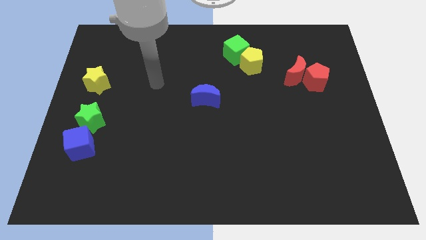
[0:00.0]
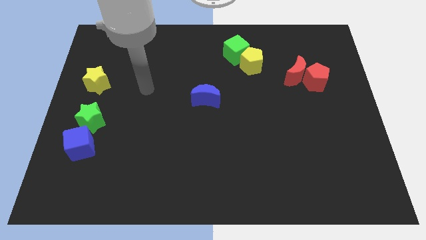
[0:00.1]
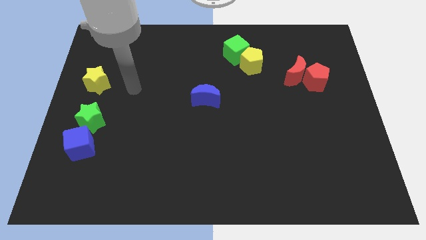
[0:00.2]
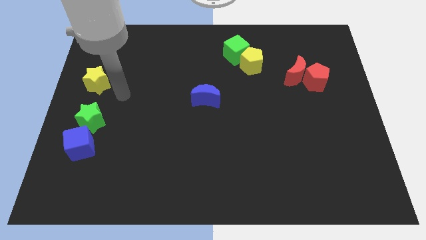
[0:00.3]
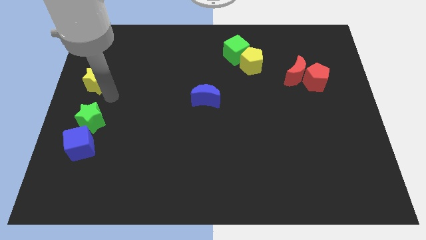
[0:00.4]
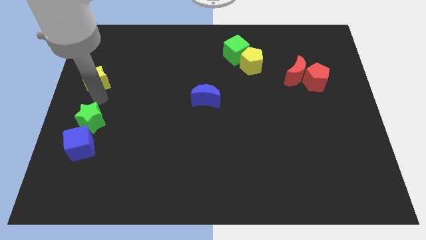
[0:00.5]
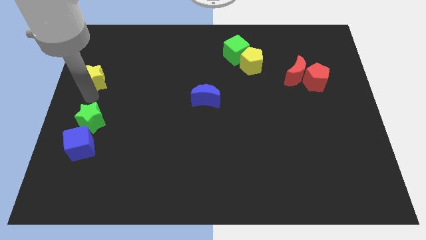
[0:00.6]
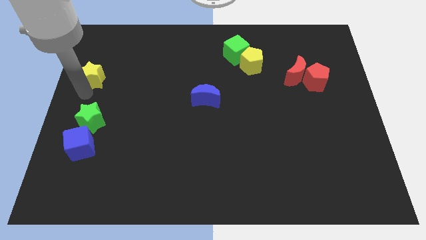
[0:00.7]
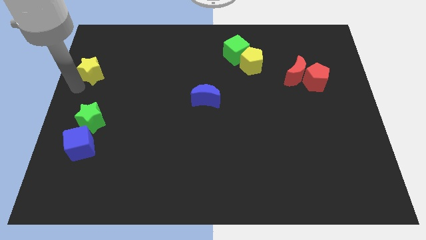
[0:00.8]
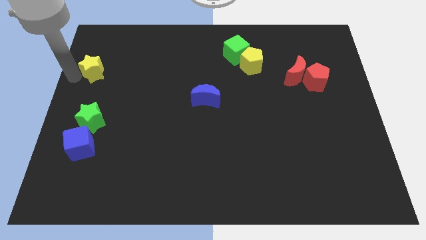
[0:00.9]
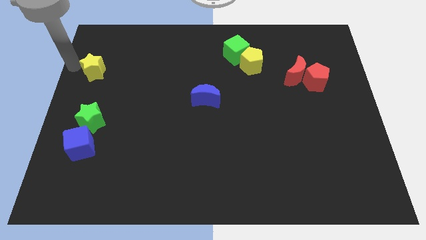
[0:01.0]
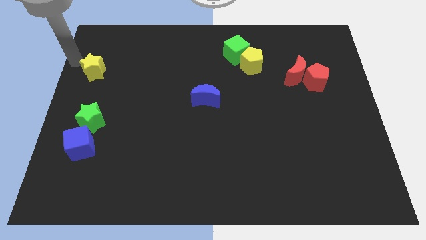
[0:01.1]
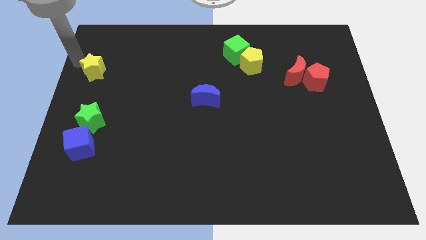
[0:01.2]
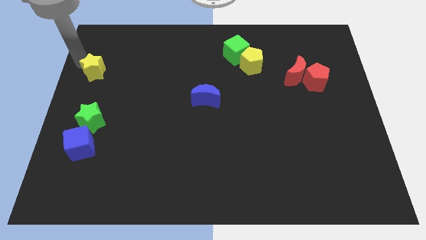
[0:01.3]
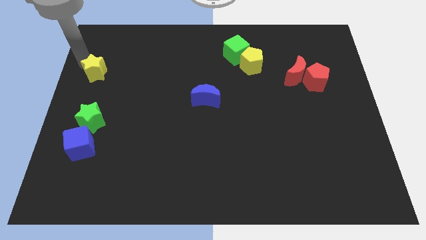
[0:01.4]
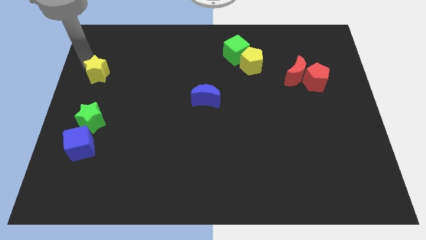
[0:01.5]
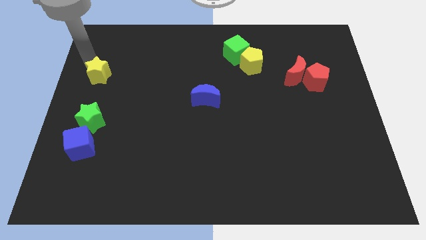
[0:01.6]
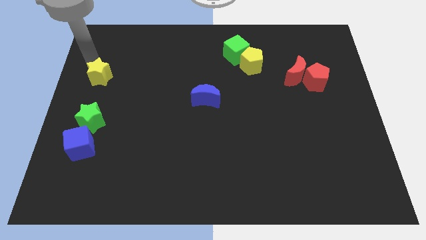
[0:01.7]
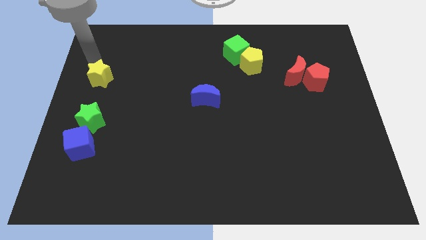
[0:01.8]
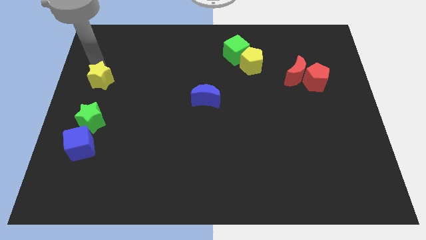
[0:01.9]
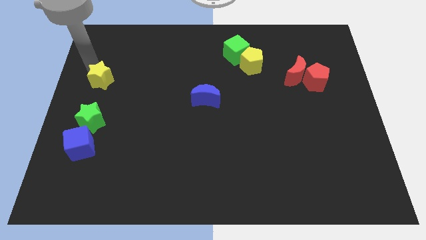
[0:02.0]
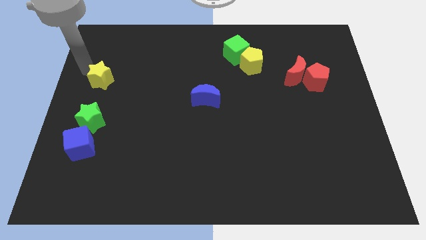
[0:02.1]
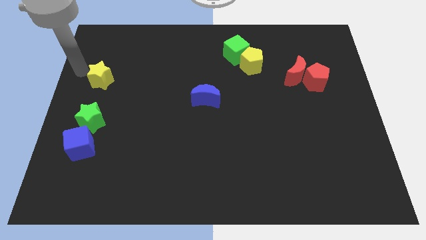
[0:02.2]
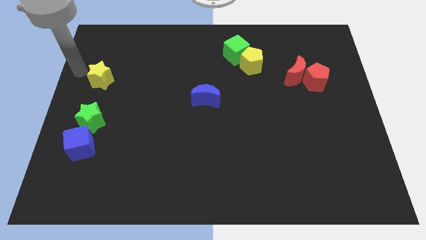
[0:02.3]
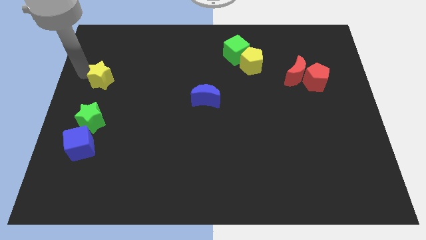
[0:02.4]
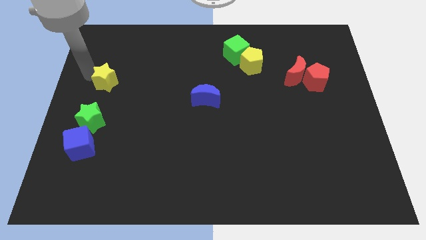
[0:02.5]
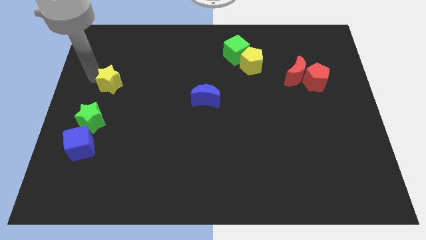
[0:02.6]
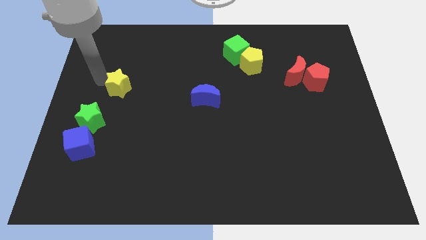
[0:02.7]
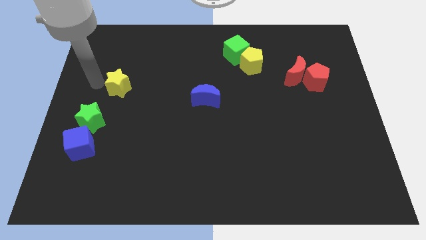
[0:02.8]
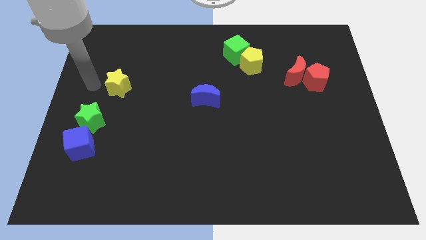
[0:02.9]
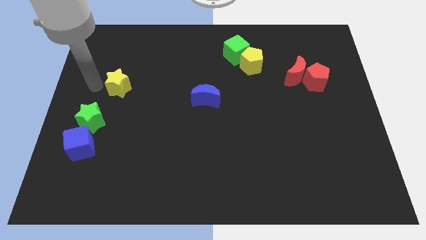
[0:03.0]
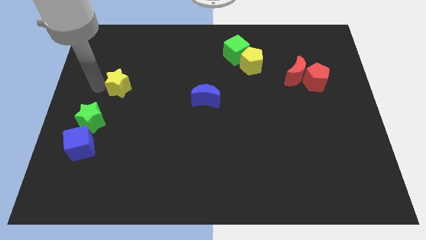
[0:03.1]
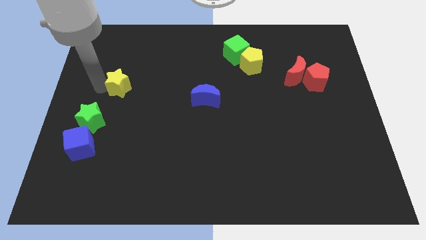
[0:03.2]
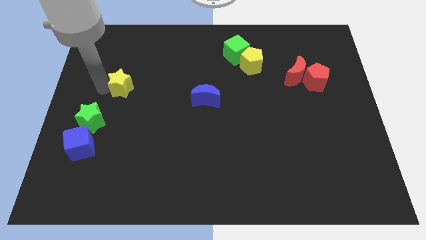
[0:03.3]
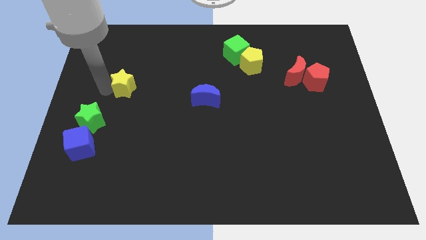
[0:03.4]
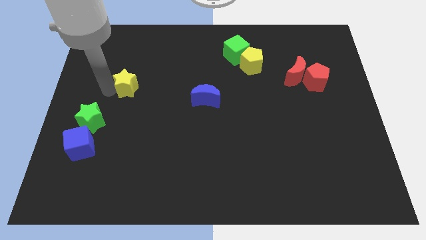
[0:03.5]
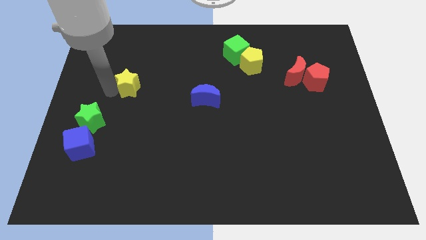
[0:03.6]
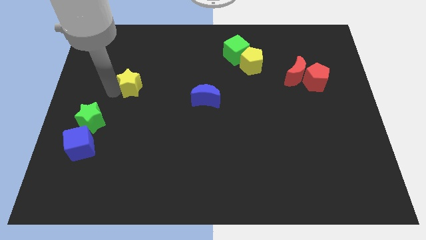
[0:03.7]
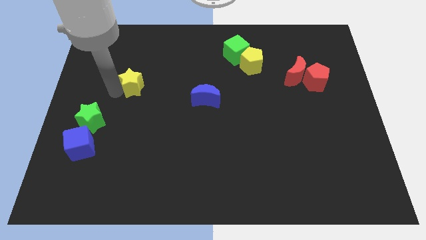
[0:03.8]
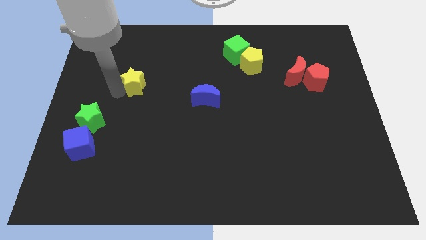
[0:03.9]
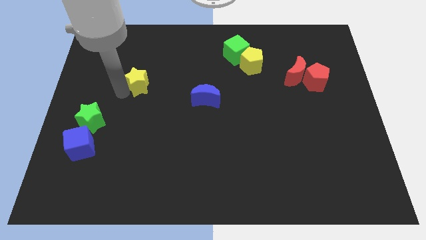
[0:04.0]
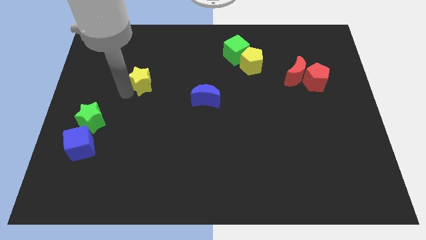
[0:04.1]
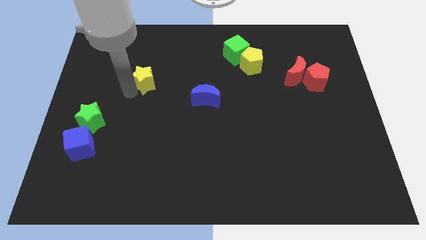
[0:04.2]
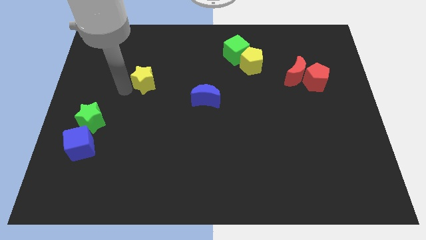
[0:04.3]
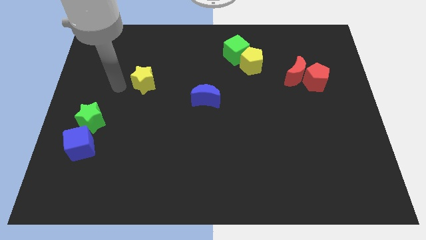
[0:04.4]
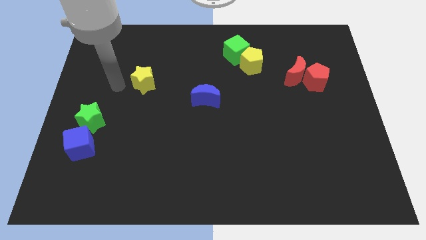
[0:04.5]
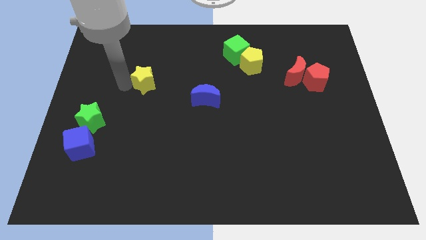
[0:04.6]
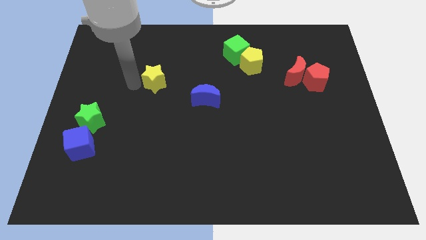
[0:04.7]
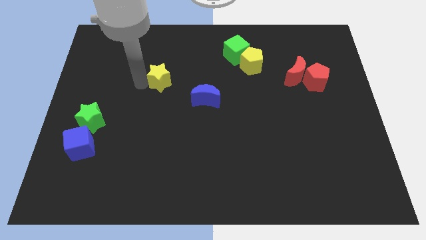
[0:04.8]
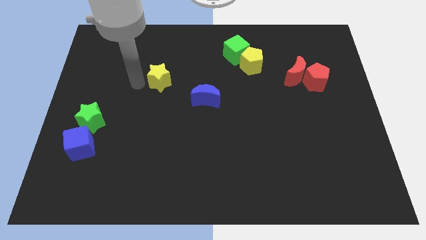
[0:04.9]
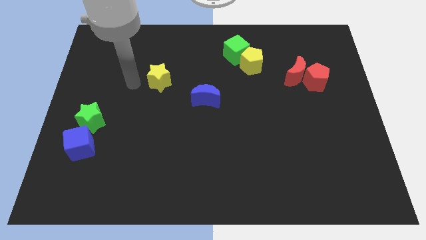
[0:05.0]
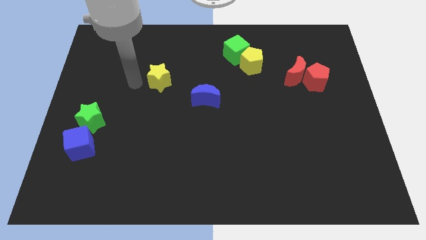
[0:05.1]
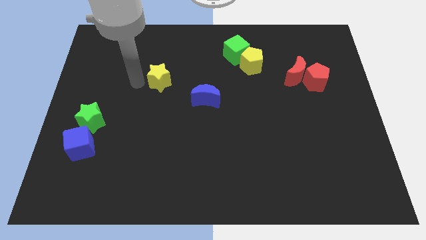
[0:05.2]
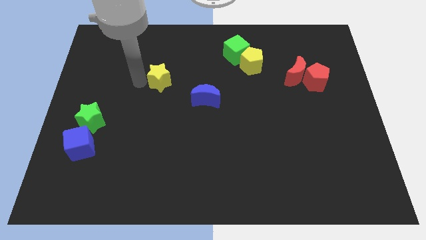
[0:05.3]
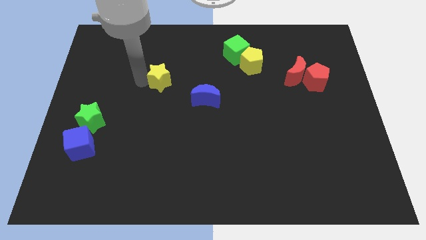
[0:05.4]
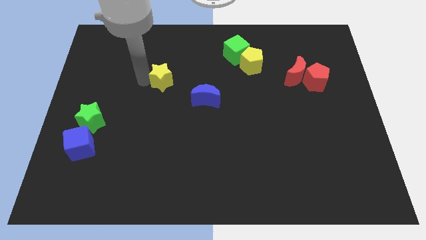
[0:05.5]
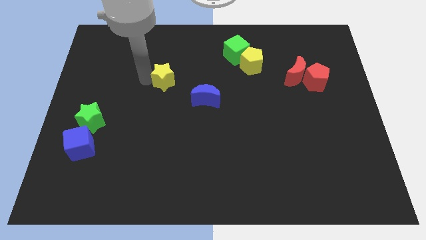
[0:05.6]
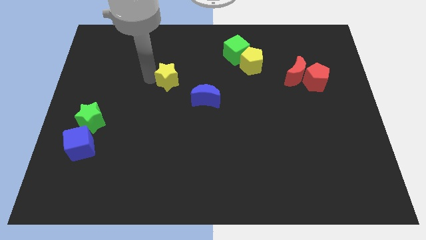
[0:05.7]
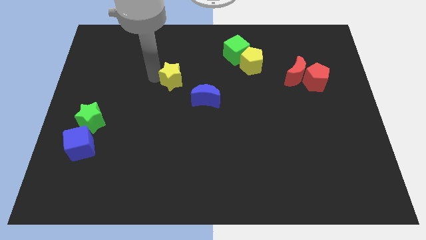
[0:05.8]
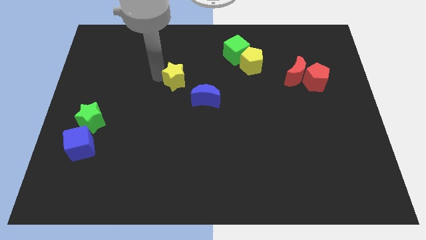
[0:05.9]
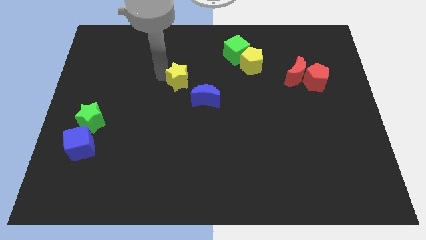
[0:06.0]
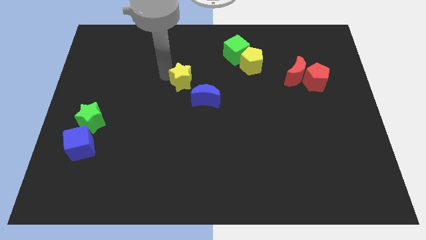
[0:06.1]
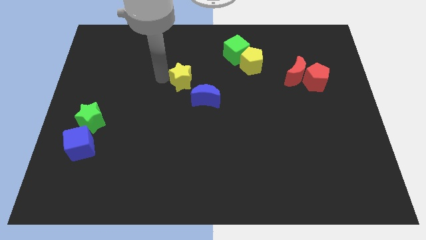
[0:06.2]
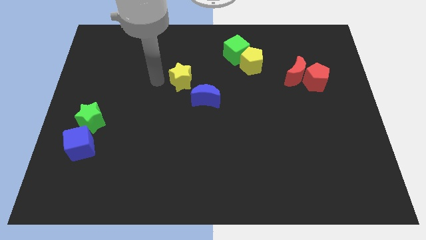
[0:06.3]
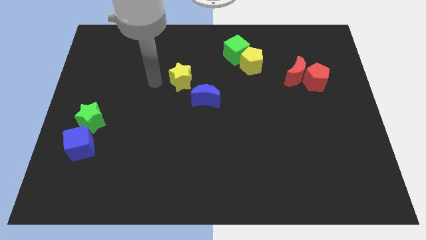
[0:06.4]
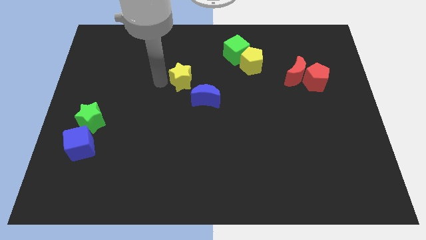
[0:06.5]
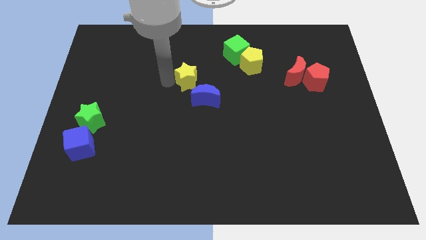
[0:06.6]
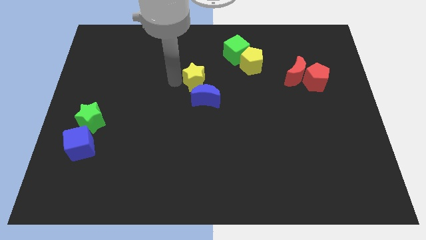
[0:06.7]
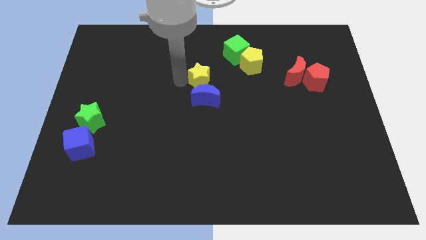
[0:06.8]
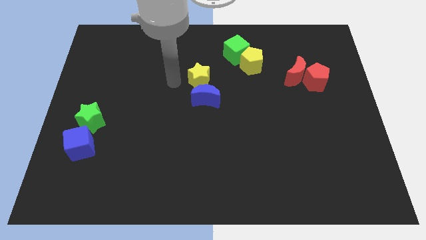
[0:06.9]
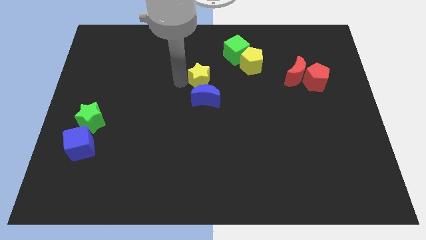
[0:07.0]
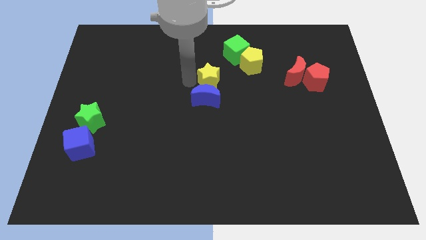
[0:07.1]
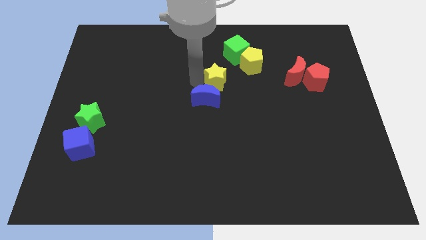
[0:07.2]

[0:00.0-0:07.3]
put the yellow star to the bottom left side of the yellow pentagon
